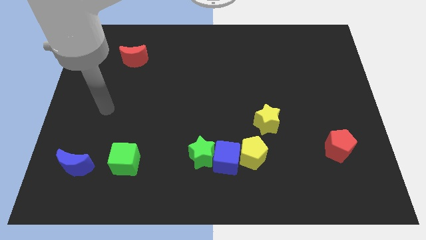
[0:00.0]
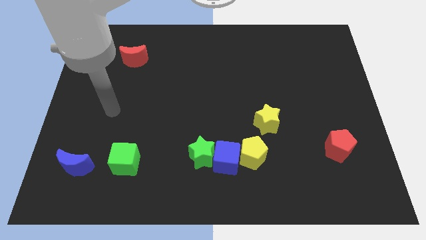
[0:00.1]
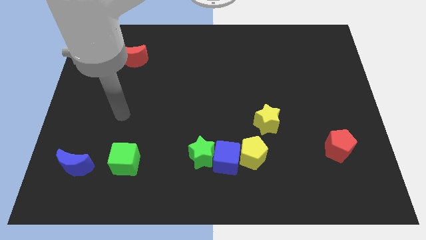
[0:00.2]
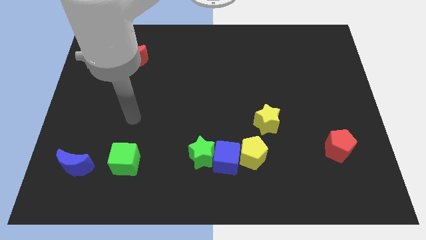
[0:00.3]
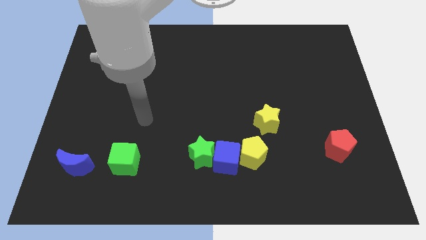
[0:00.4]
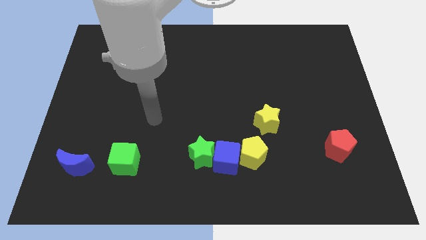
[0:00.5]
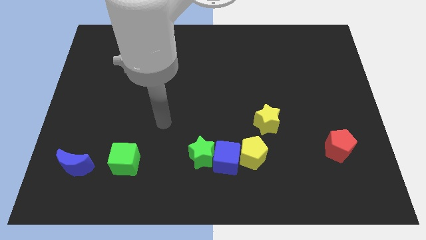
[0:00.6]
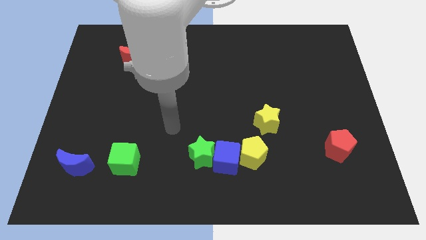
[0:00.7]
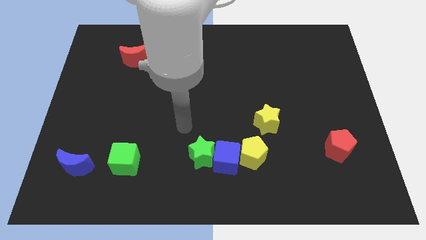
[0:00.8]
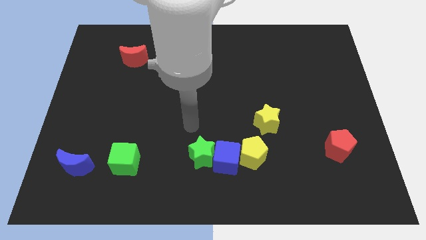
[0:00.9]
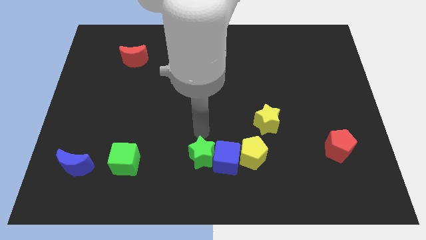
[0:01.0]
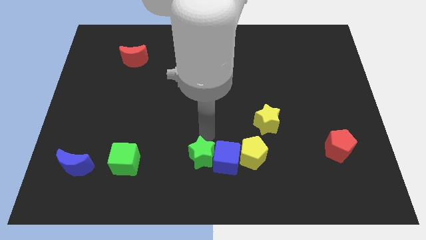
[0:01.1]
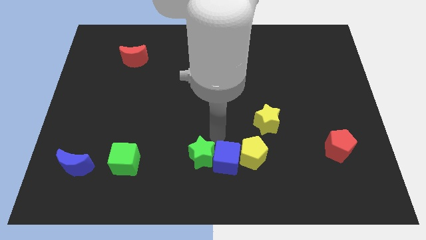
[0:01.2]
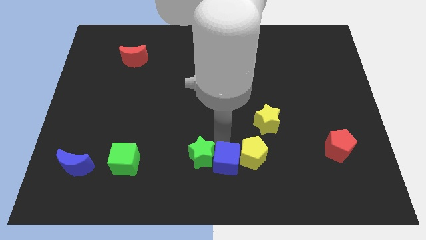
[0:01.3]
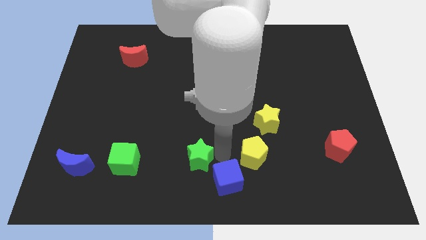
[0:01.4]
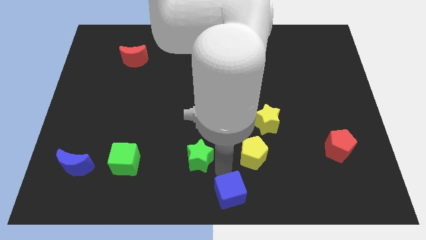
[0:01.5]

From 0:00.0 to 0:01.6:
pull the green star apart from the blue cube

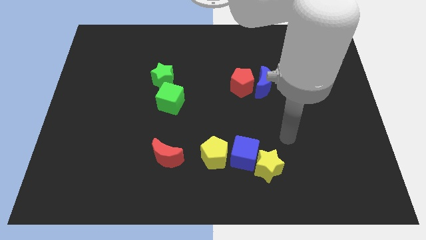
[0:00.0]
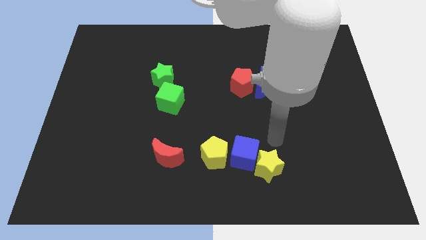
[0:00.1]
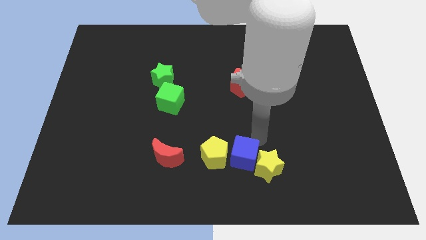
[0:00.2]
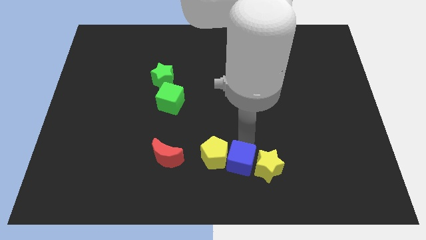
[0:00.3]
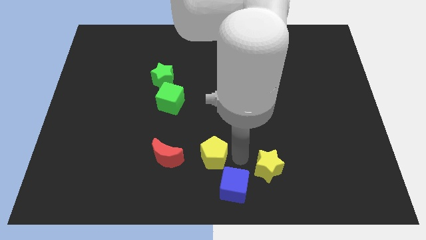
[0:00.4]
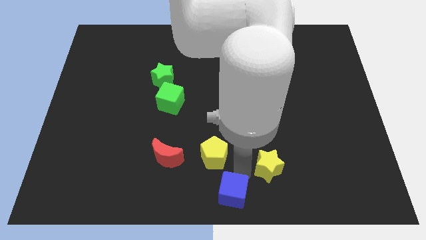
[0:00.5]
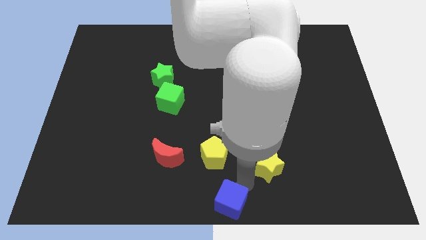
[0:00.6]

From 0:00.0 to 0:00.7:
separate the yellow star from the blue cube

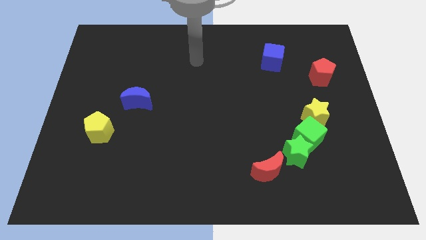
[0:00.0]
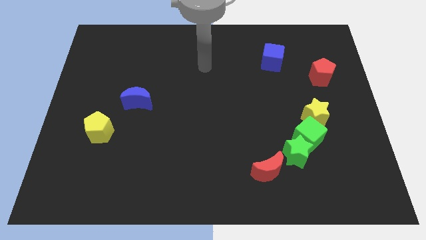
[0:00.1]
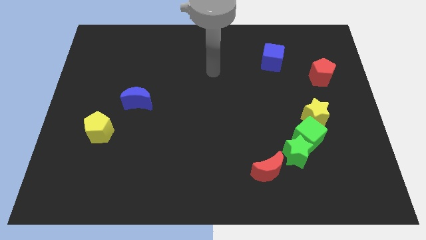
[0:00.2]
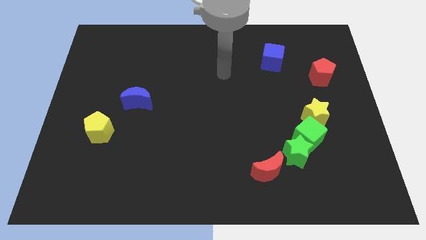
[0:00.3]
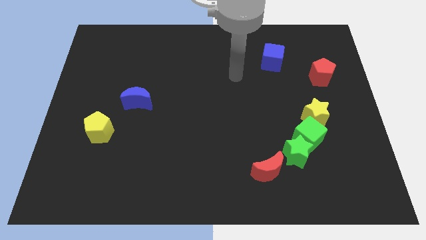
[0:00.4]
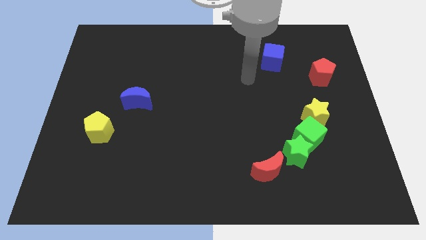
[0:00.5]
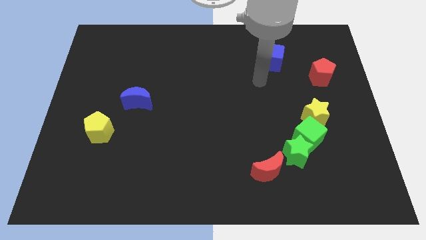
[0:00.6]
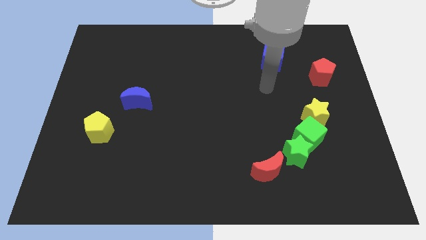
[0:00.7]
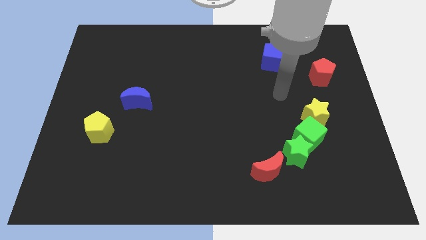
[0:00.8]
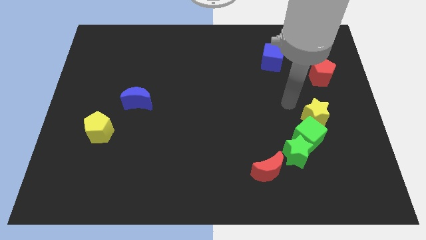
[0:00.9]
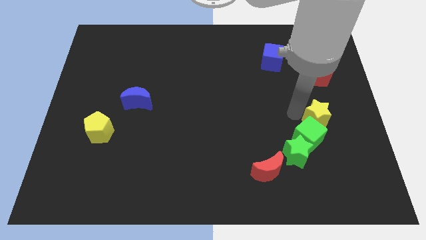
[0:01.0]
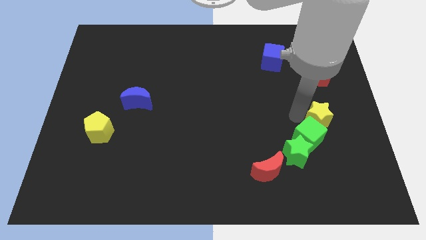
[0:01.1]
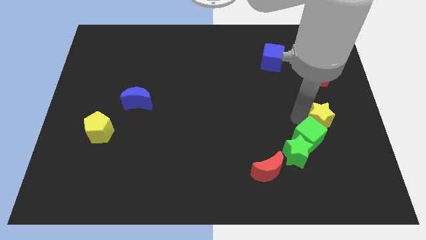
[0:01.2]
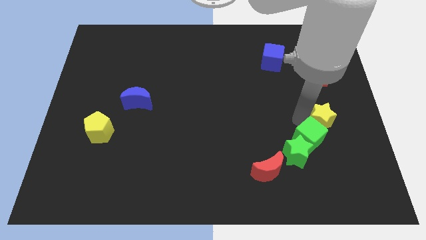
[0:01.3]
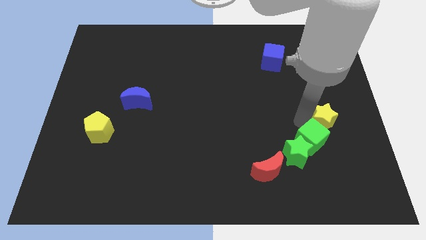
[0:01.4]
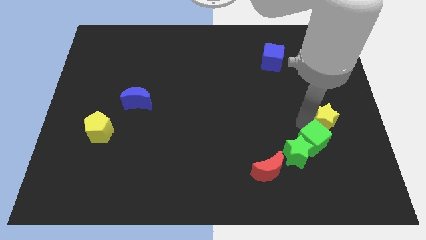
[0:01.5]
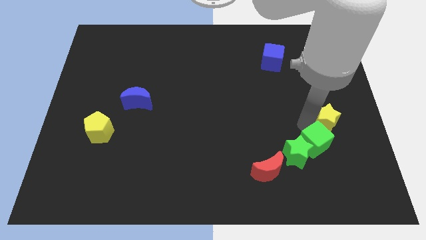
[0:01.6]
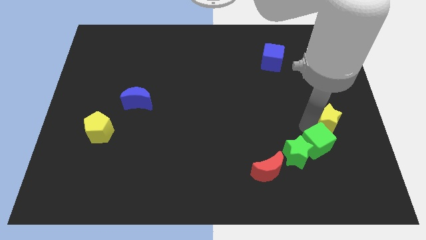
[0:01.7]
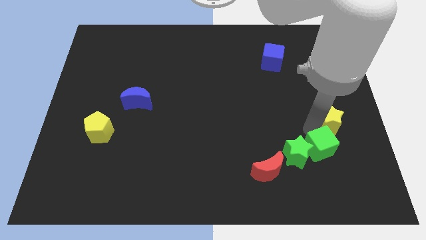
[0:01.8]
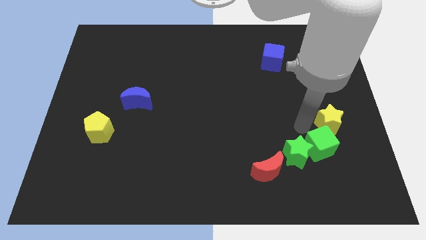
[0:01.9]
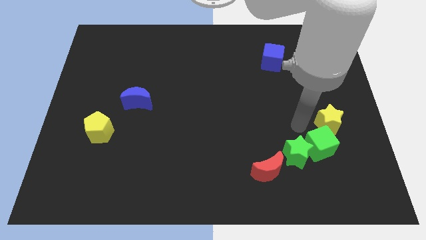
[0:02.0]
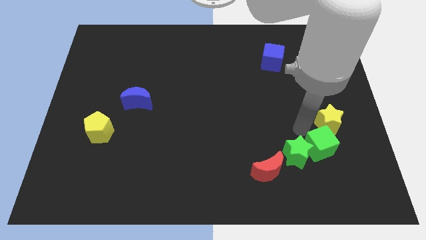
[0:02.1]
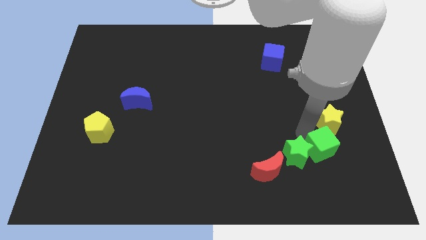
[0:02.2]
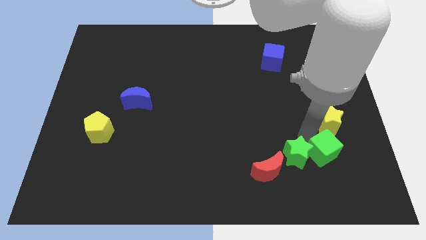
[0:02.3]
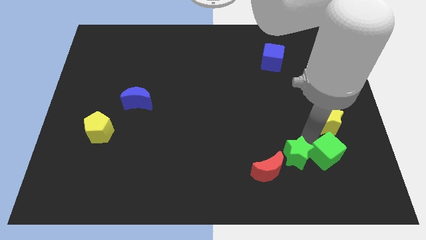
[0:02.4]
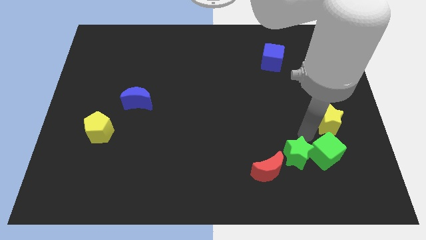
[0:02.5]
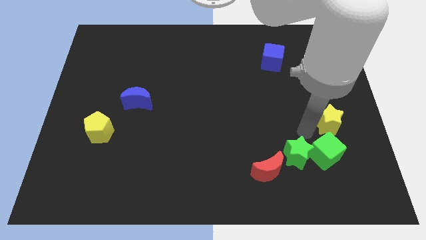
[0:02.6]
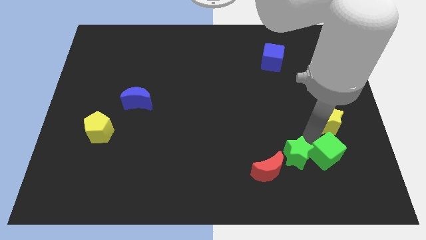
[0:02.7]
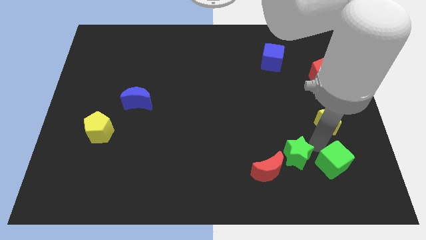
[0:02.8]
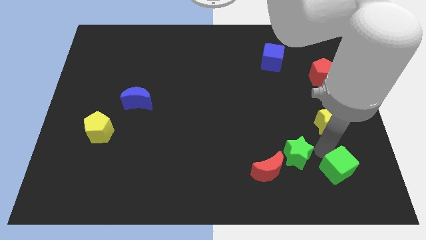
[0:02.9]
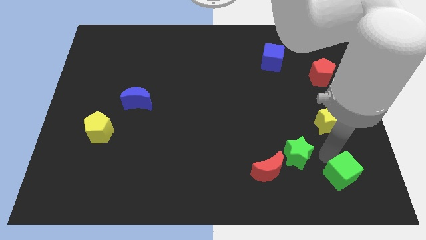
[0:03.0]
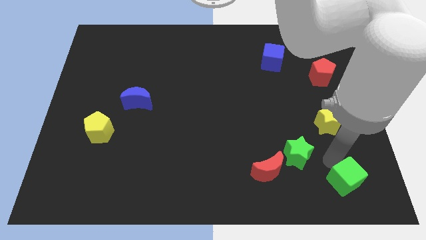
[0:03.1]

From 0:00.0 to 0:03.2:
move the green cube away from the green star and yellow star

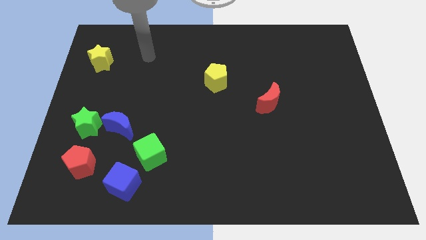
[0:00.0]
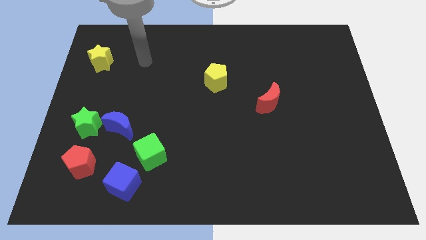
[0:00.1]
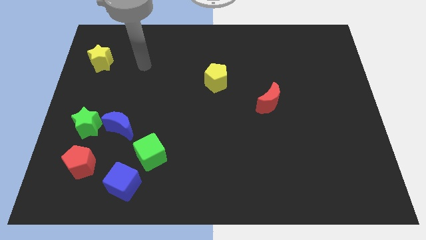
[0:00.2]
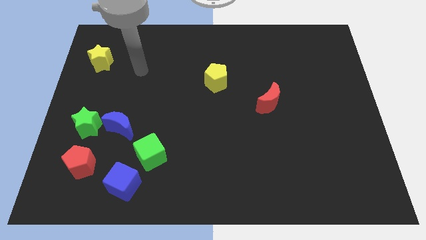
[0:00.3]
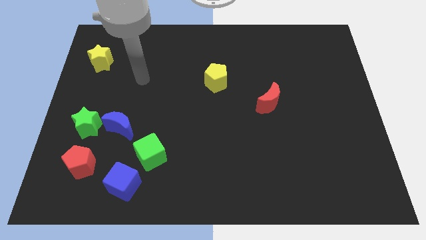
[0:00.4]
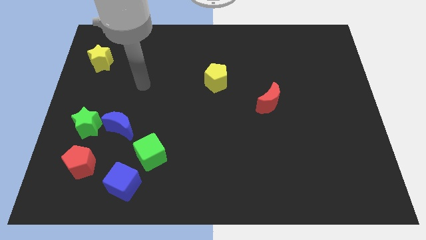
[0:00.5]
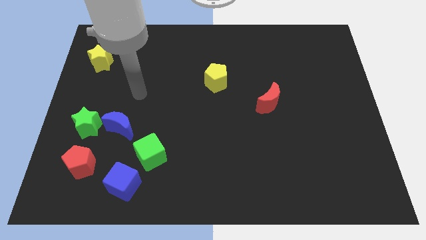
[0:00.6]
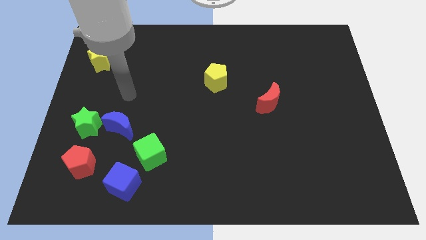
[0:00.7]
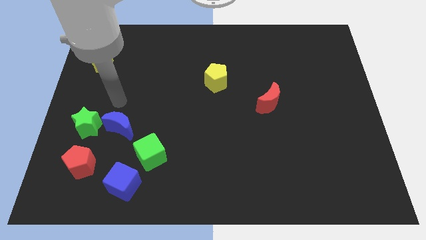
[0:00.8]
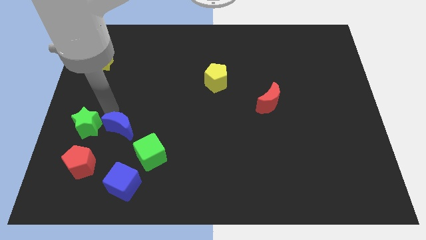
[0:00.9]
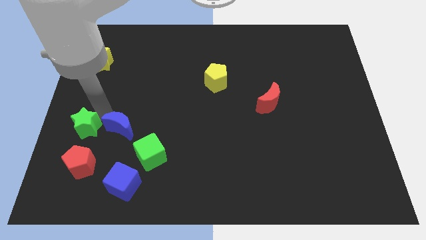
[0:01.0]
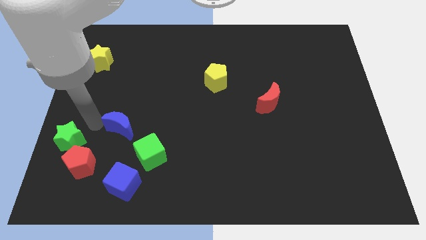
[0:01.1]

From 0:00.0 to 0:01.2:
pull the blue moon apart from the green star

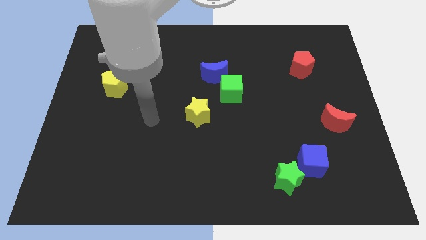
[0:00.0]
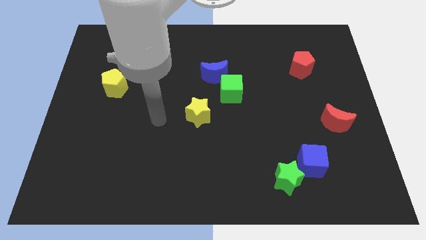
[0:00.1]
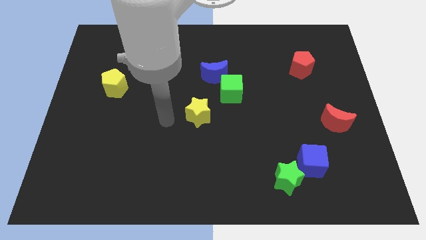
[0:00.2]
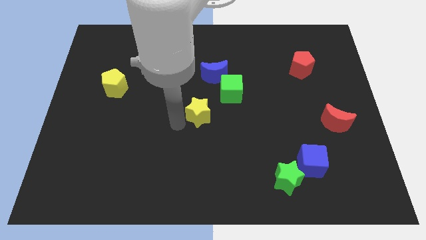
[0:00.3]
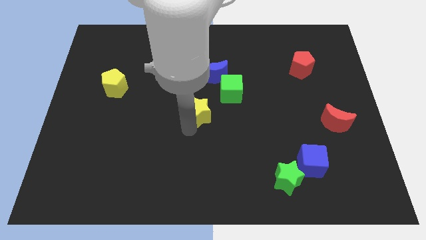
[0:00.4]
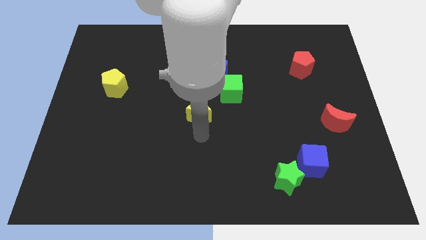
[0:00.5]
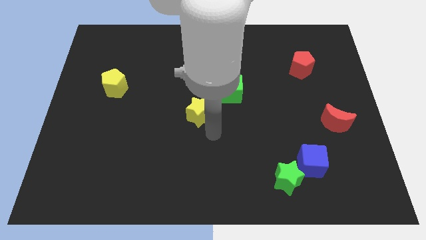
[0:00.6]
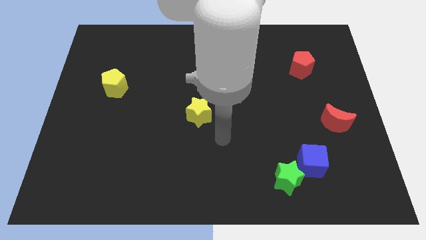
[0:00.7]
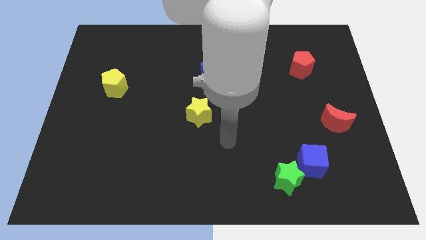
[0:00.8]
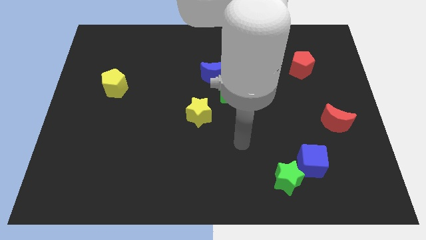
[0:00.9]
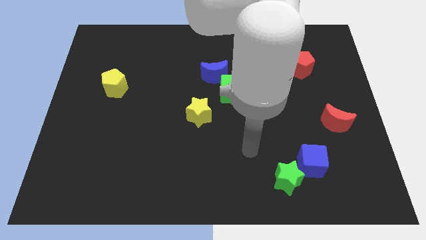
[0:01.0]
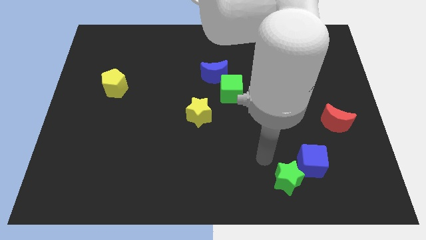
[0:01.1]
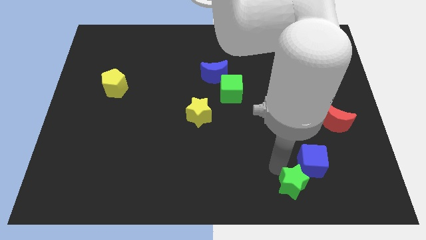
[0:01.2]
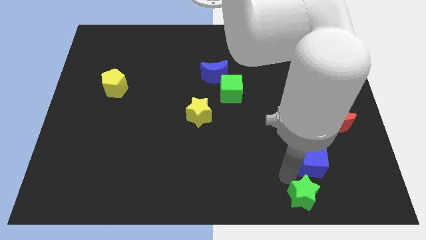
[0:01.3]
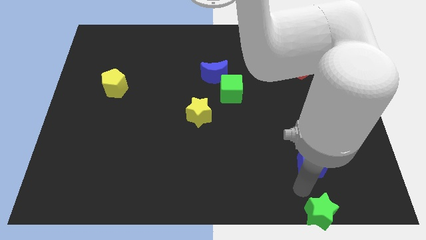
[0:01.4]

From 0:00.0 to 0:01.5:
pull the blue cube apart from the green star

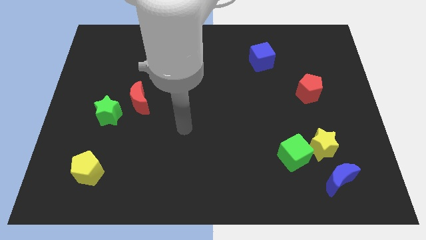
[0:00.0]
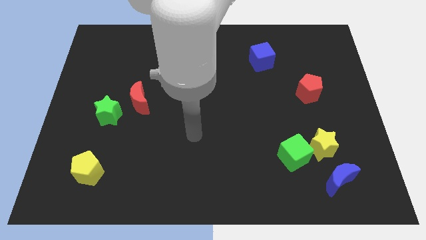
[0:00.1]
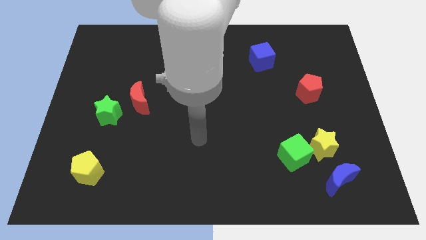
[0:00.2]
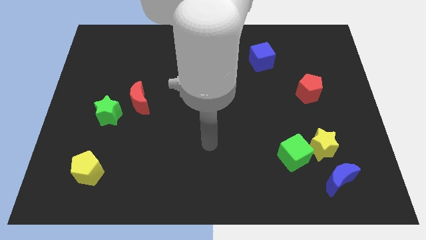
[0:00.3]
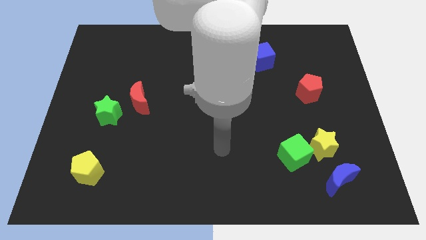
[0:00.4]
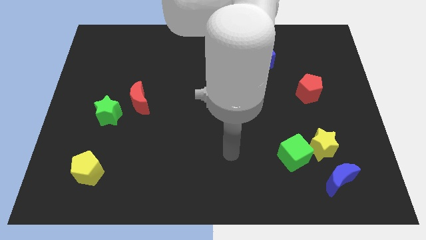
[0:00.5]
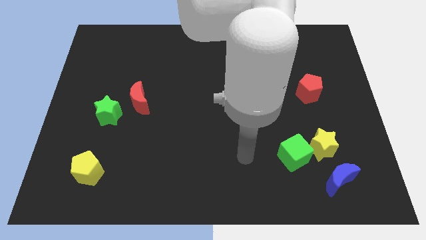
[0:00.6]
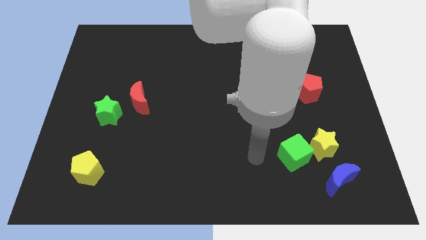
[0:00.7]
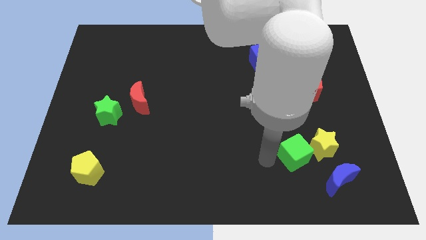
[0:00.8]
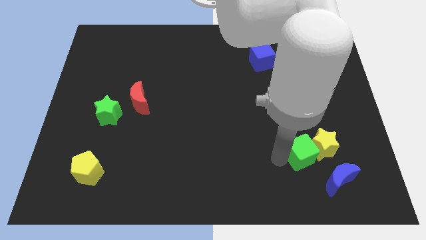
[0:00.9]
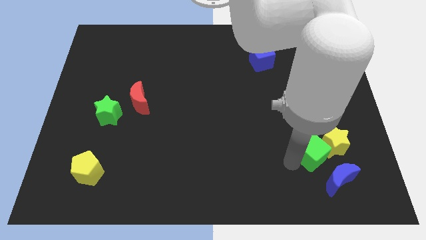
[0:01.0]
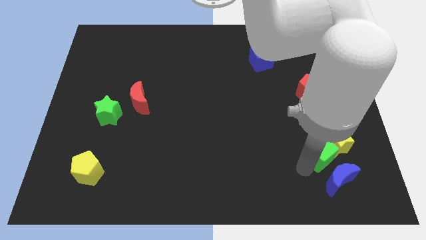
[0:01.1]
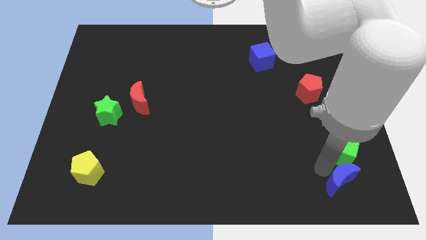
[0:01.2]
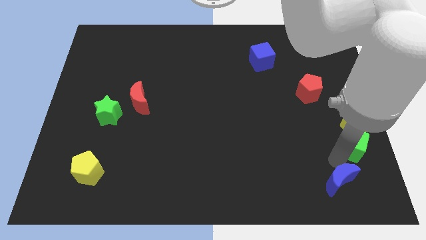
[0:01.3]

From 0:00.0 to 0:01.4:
move the yellow star away from the green cube and blue moon
